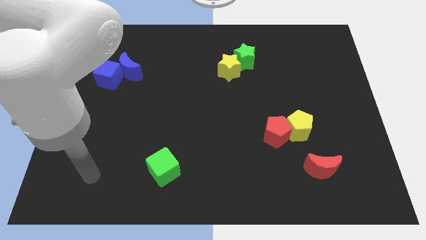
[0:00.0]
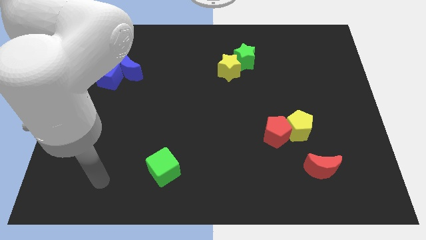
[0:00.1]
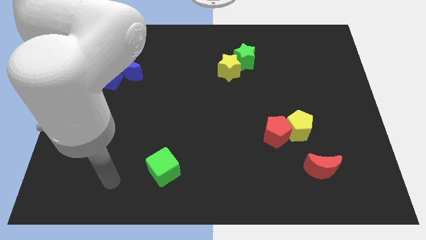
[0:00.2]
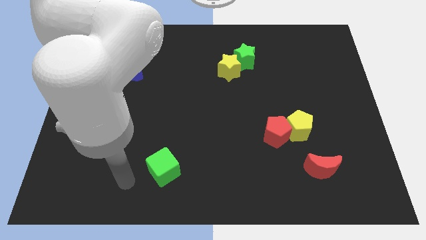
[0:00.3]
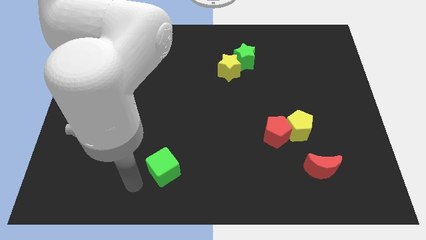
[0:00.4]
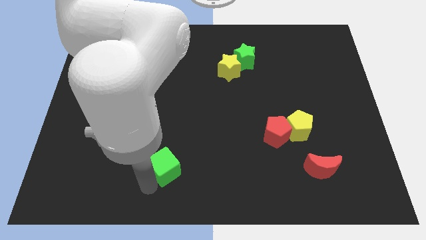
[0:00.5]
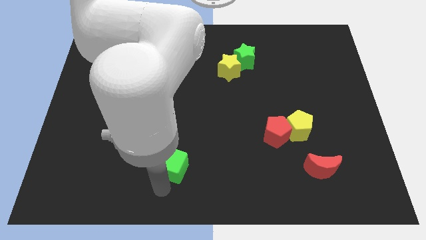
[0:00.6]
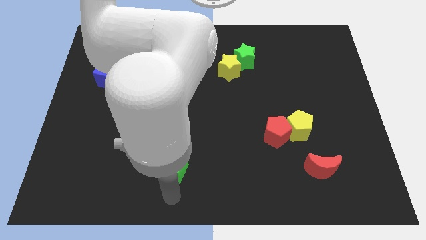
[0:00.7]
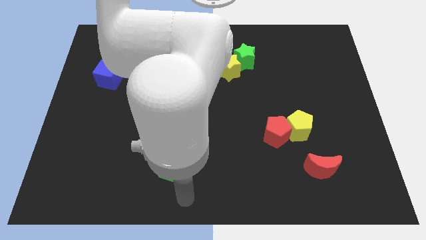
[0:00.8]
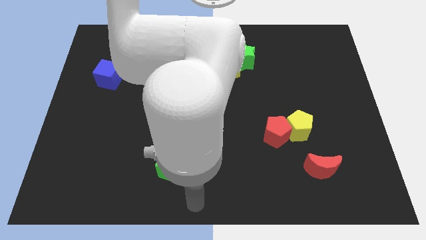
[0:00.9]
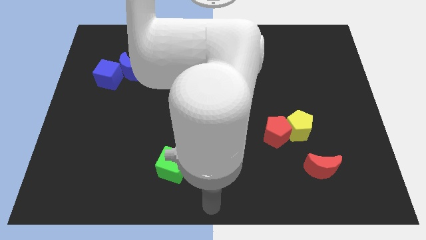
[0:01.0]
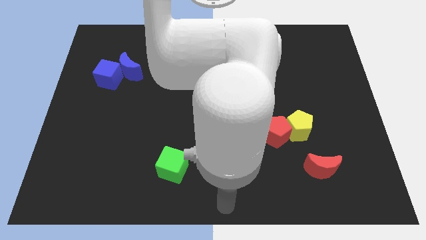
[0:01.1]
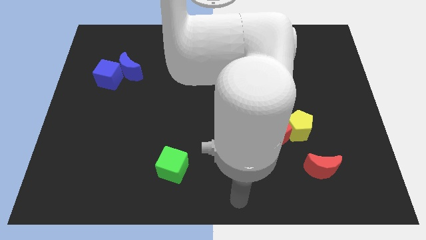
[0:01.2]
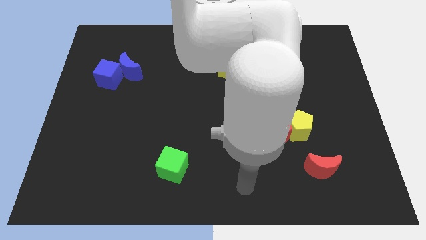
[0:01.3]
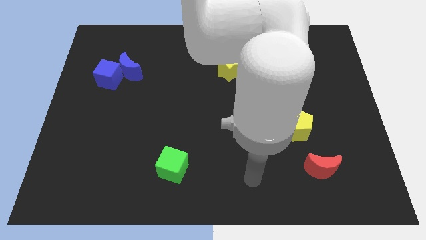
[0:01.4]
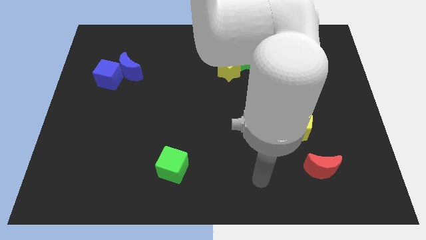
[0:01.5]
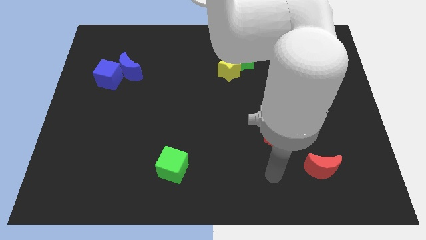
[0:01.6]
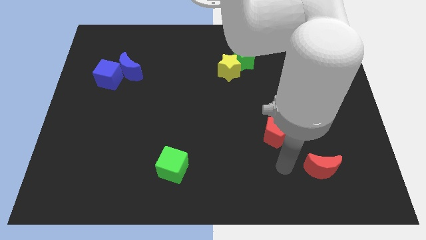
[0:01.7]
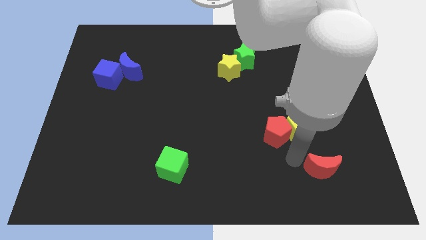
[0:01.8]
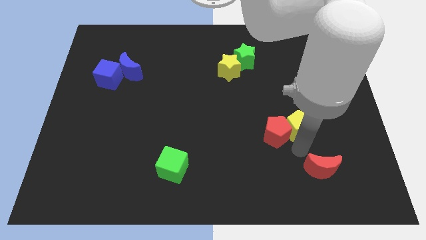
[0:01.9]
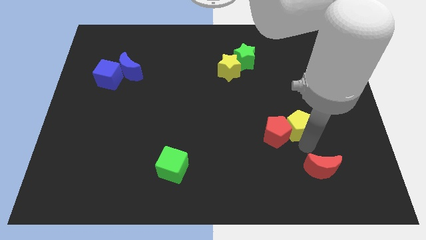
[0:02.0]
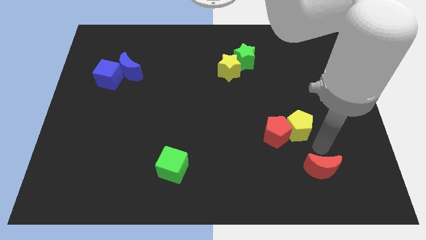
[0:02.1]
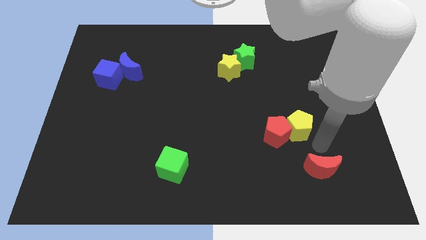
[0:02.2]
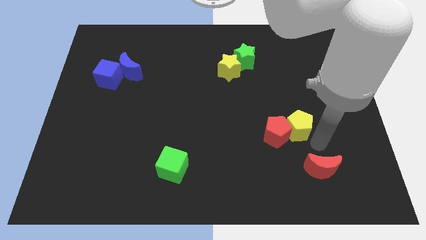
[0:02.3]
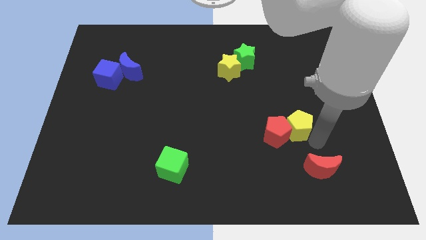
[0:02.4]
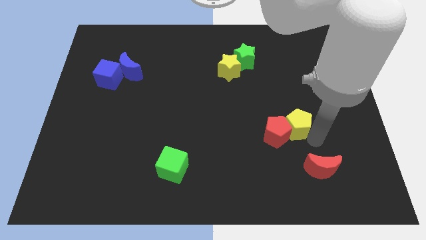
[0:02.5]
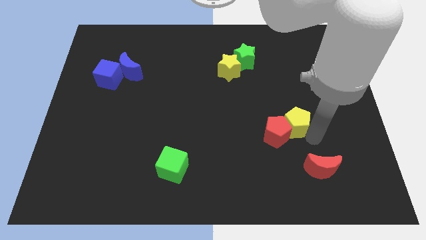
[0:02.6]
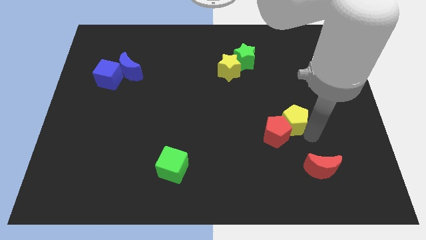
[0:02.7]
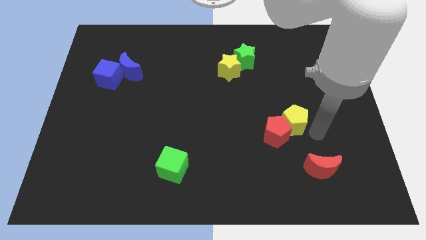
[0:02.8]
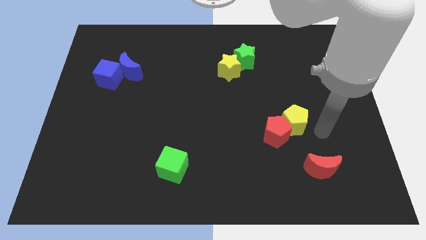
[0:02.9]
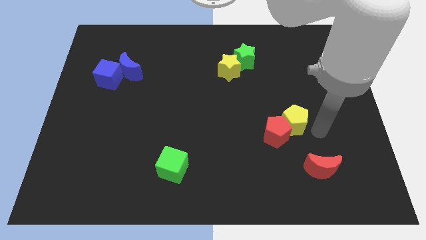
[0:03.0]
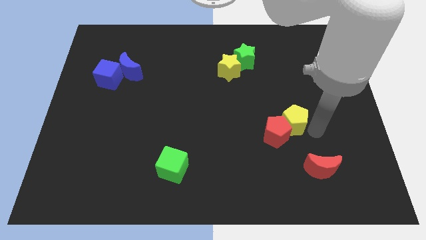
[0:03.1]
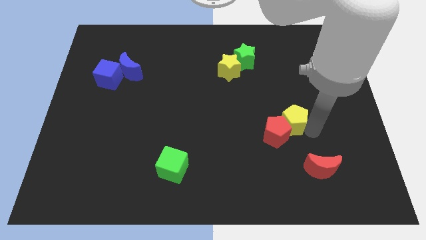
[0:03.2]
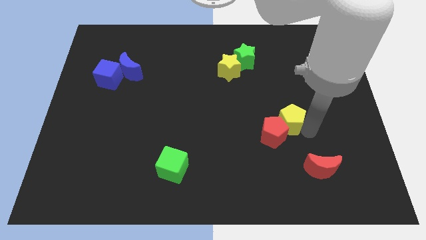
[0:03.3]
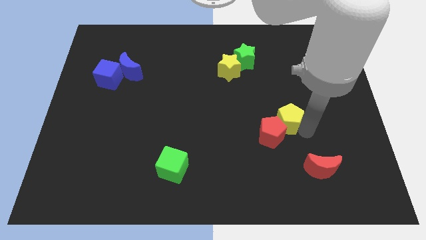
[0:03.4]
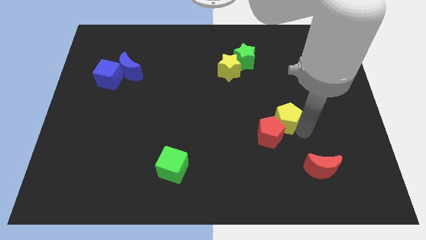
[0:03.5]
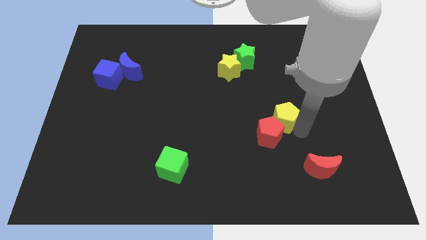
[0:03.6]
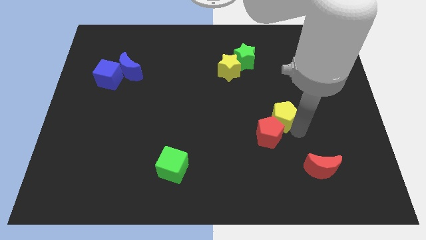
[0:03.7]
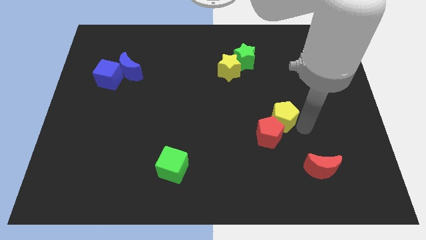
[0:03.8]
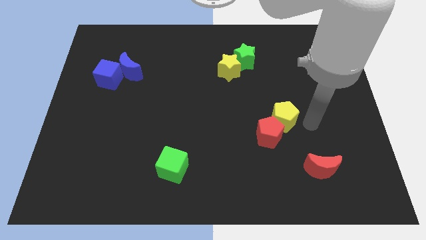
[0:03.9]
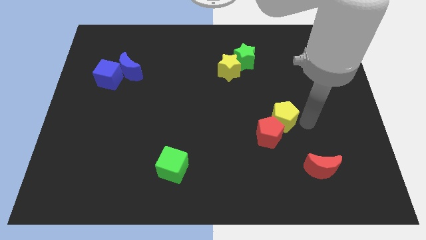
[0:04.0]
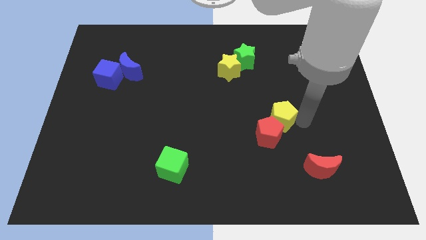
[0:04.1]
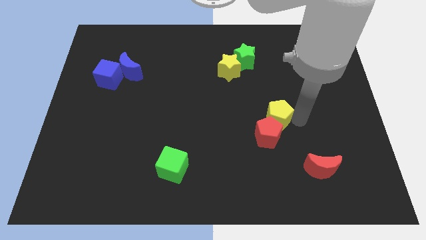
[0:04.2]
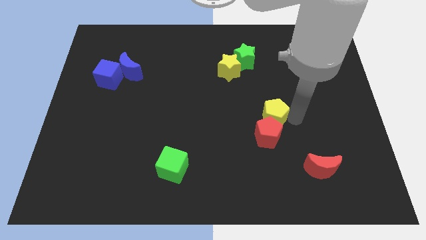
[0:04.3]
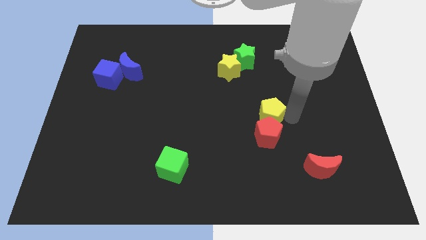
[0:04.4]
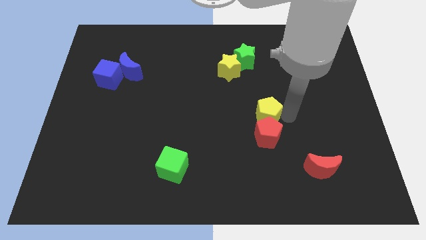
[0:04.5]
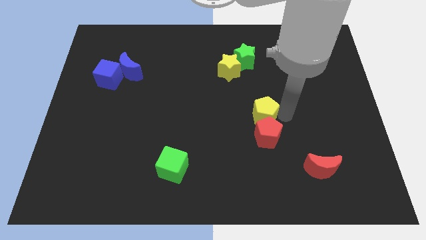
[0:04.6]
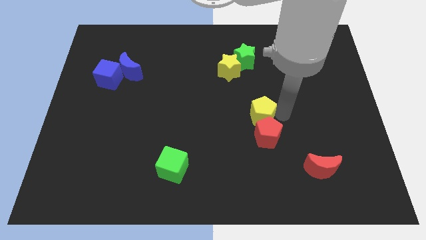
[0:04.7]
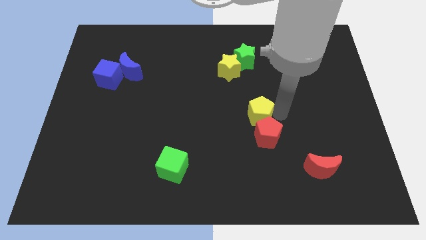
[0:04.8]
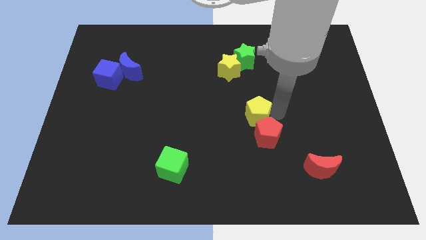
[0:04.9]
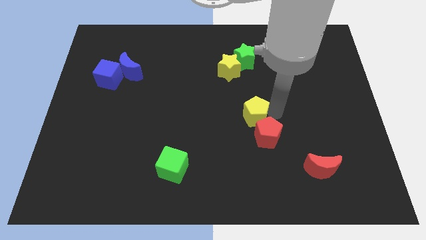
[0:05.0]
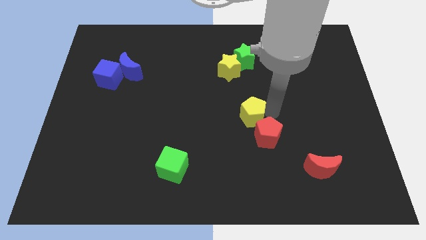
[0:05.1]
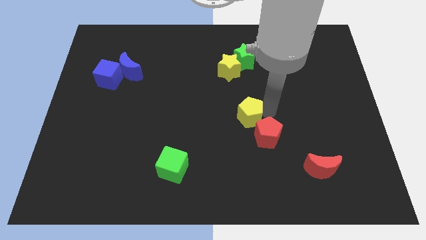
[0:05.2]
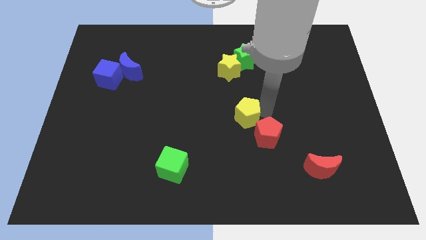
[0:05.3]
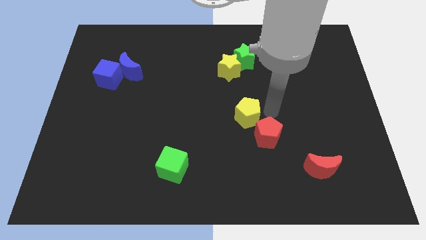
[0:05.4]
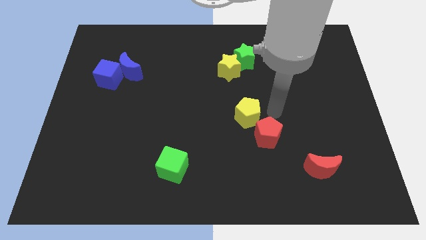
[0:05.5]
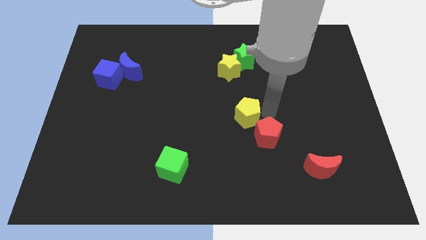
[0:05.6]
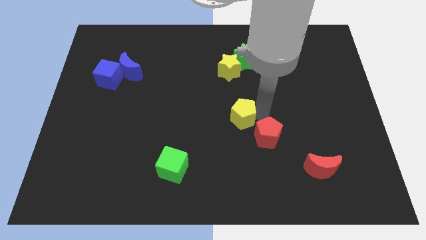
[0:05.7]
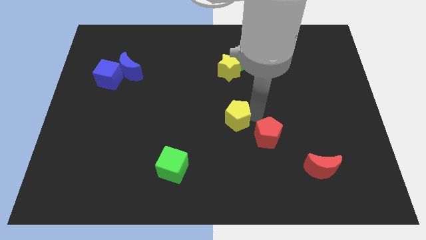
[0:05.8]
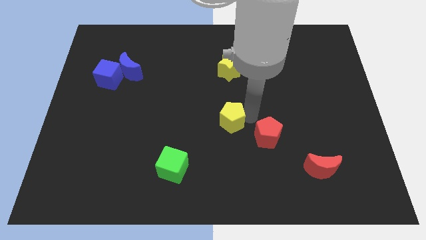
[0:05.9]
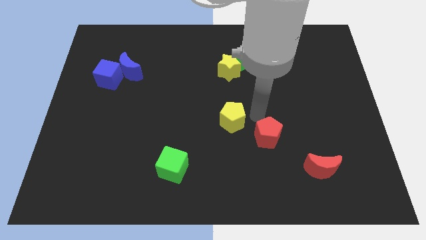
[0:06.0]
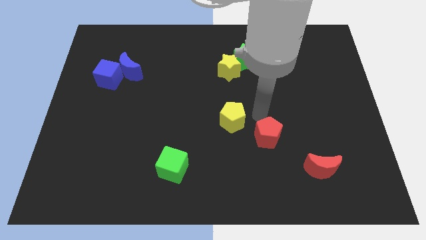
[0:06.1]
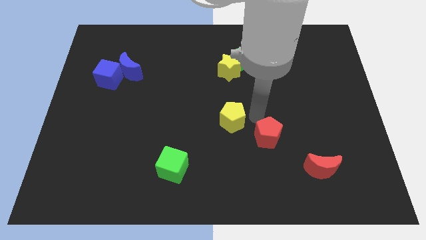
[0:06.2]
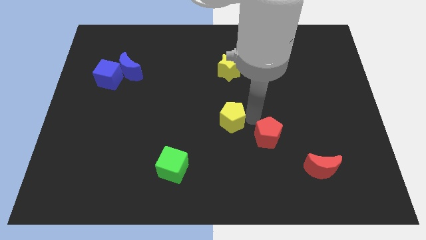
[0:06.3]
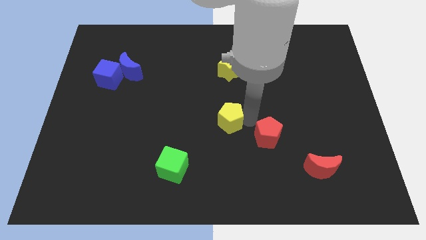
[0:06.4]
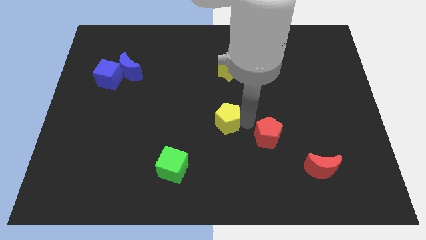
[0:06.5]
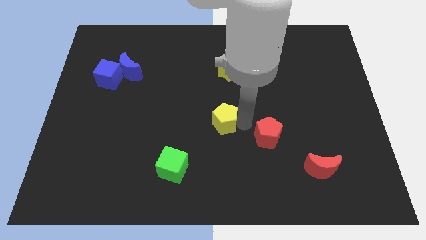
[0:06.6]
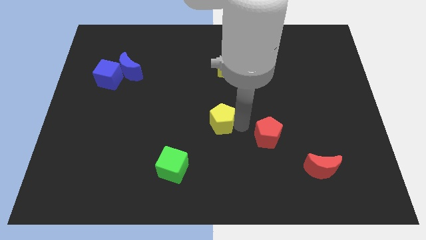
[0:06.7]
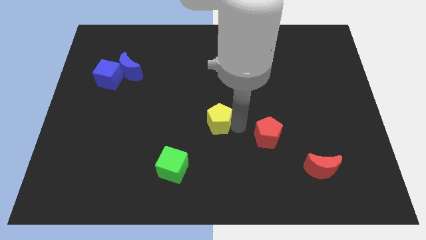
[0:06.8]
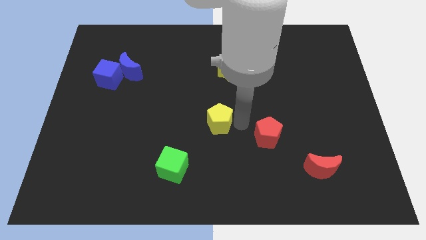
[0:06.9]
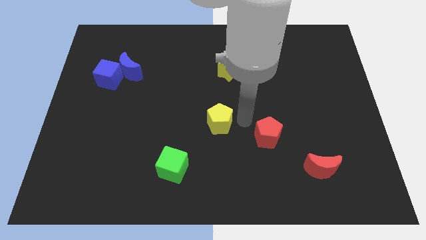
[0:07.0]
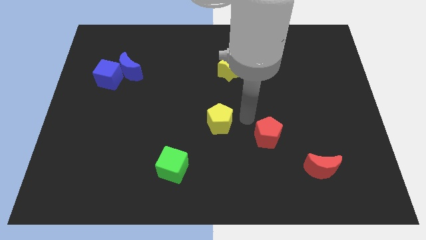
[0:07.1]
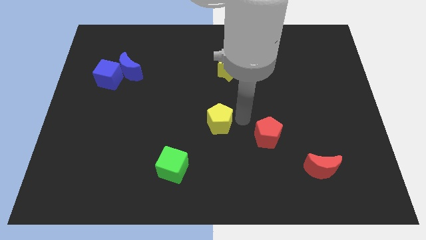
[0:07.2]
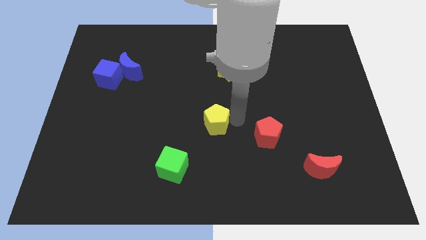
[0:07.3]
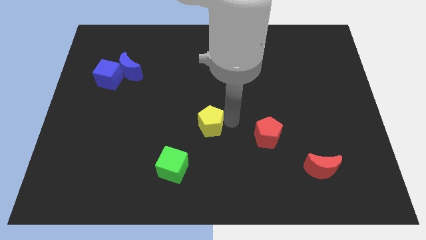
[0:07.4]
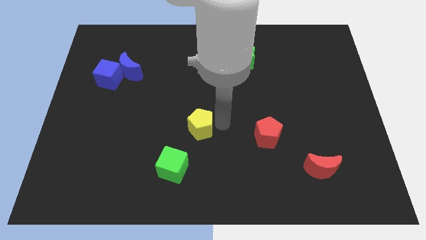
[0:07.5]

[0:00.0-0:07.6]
push the yellow pentagon to the left

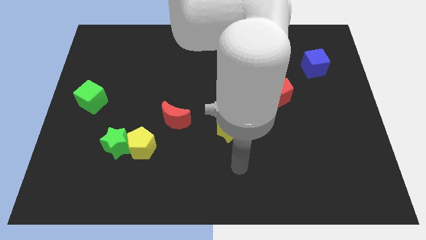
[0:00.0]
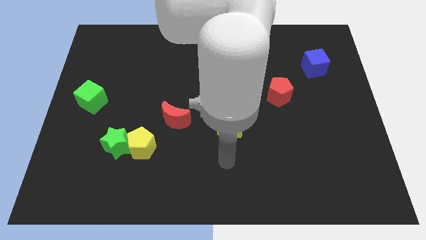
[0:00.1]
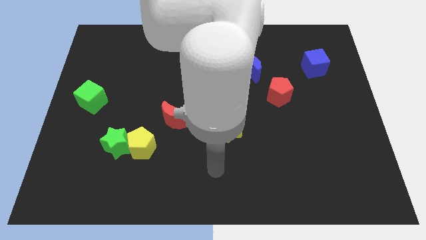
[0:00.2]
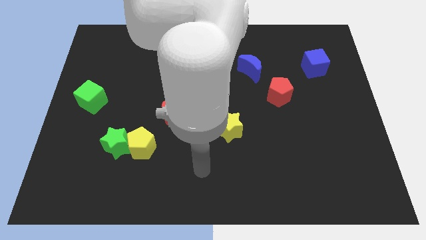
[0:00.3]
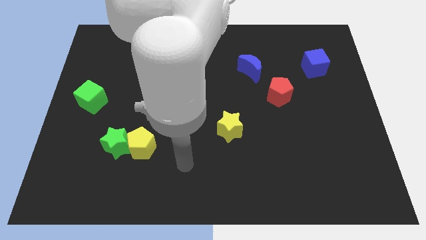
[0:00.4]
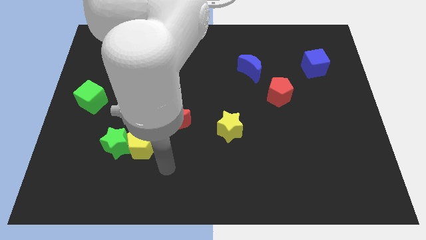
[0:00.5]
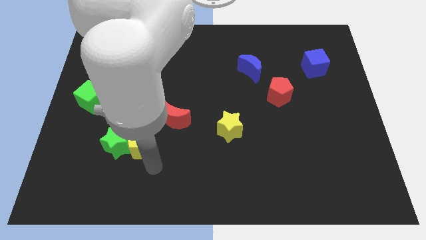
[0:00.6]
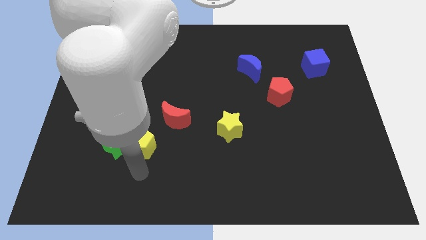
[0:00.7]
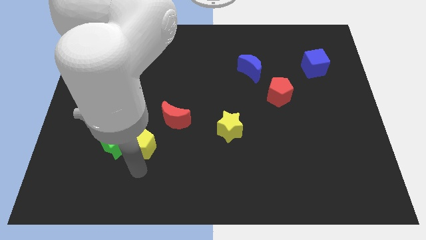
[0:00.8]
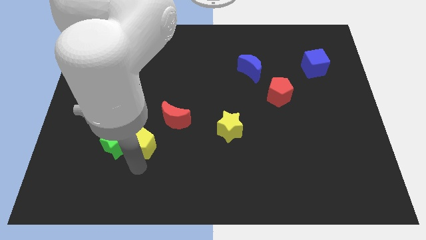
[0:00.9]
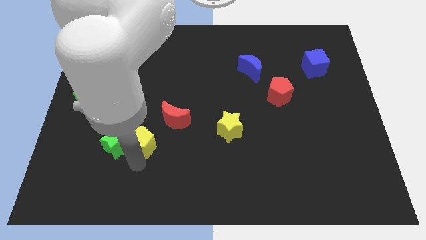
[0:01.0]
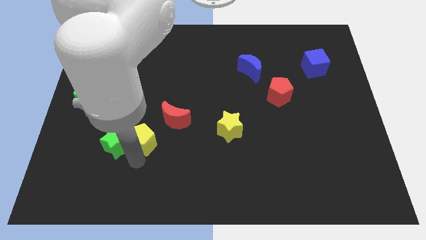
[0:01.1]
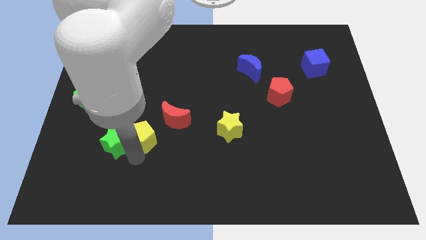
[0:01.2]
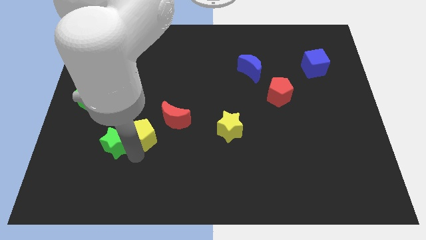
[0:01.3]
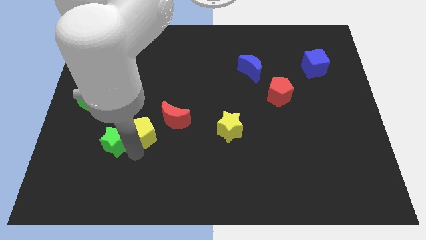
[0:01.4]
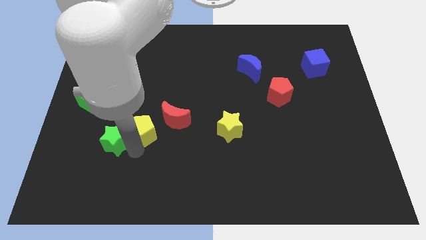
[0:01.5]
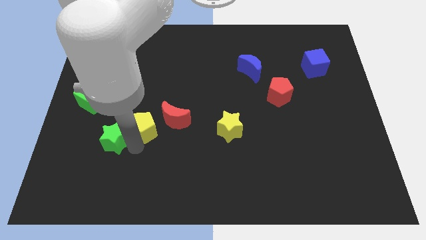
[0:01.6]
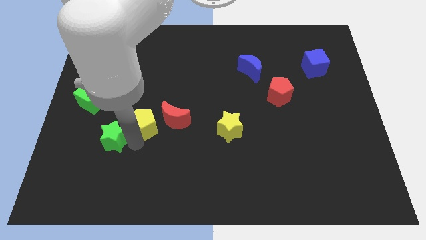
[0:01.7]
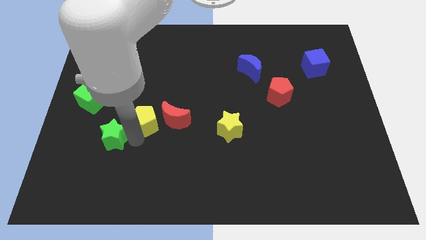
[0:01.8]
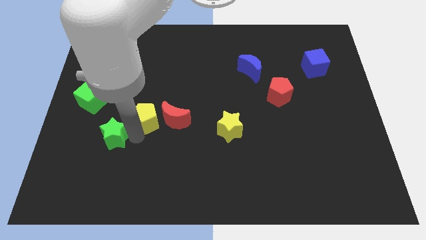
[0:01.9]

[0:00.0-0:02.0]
slide the yellow pentagon upwards a bit
